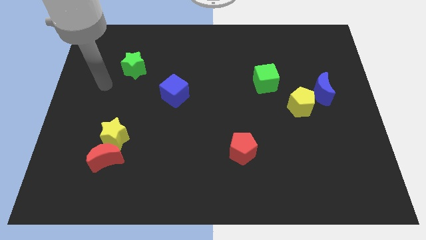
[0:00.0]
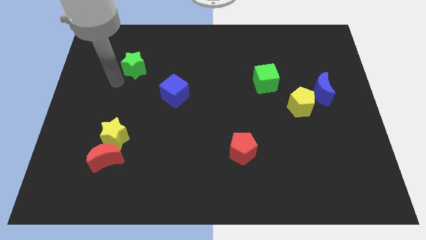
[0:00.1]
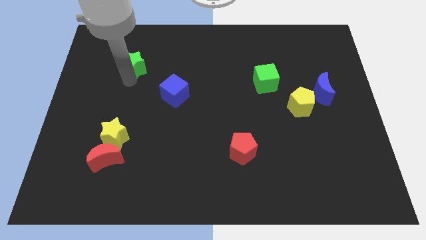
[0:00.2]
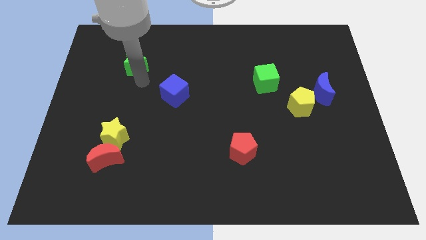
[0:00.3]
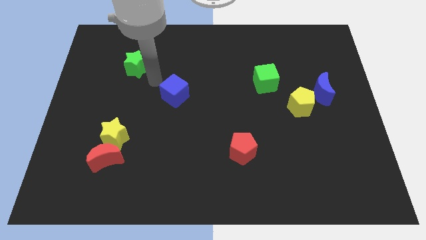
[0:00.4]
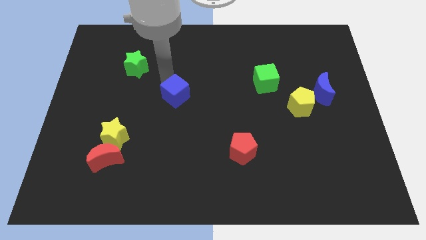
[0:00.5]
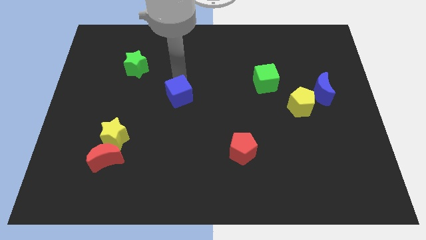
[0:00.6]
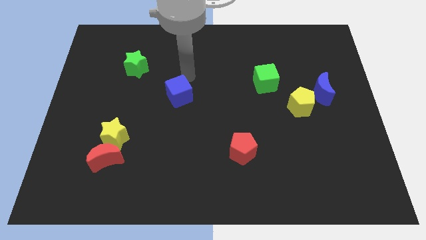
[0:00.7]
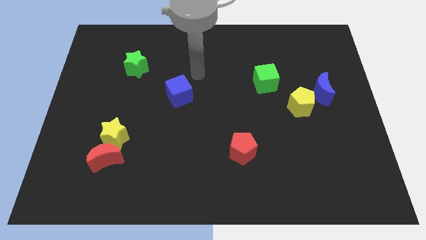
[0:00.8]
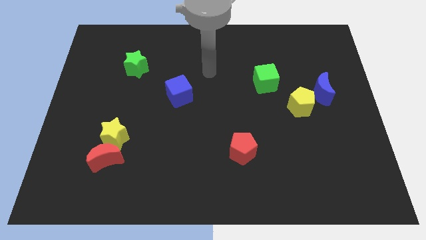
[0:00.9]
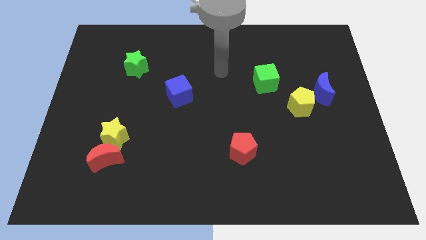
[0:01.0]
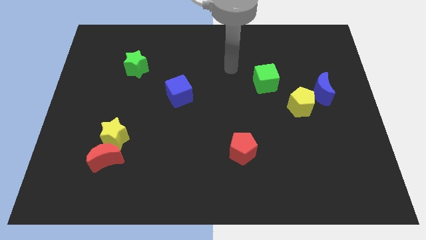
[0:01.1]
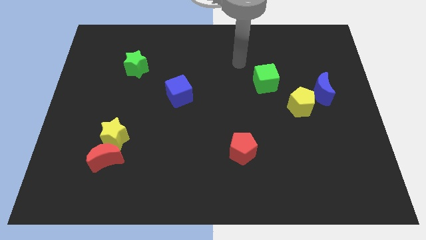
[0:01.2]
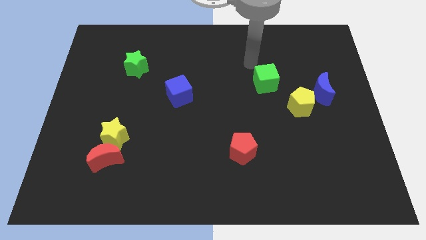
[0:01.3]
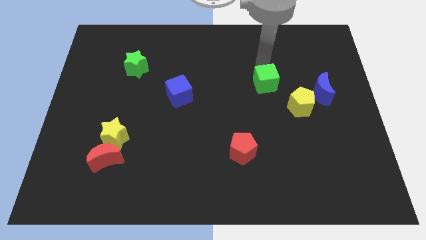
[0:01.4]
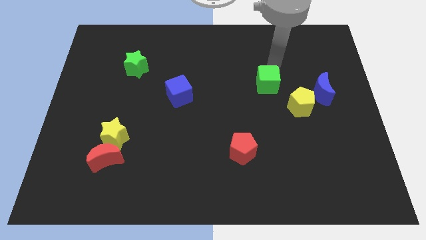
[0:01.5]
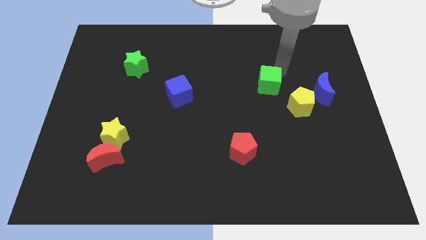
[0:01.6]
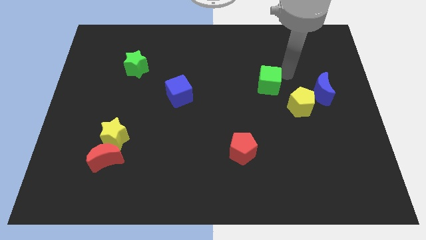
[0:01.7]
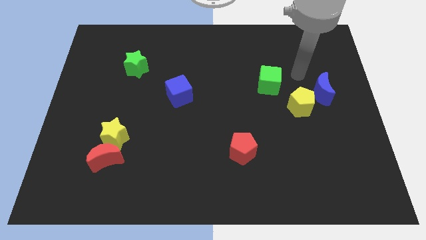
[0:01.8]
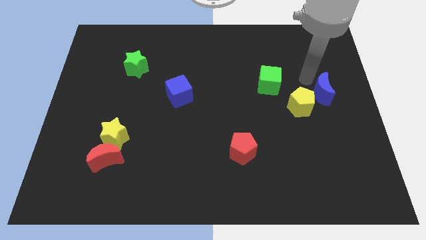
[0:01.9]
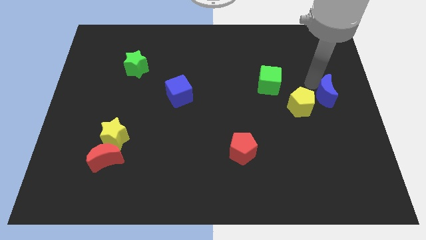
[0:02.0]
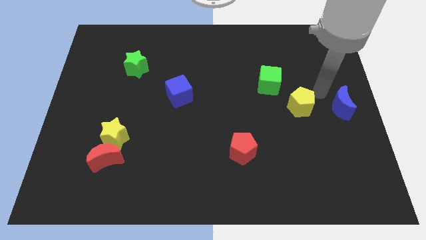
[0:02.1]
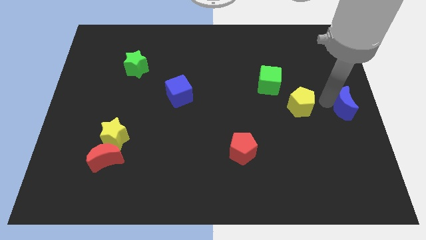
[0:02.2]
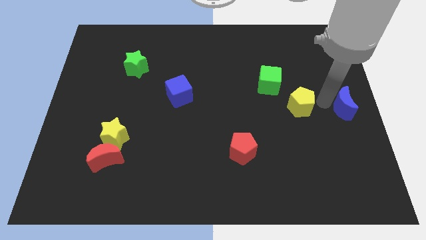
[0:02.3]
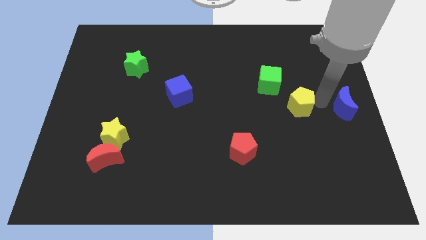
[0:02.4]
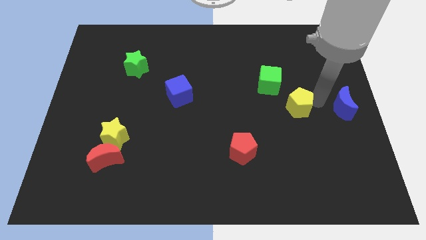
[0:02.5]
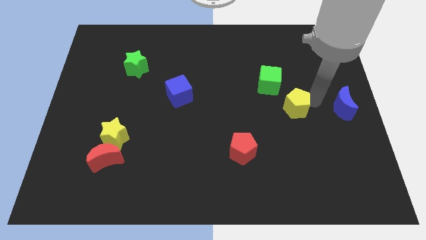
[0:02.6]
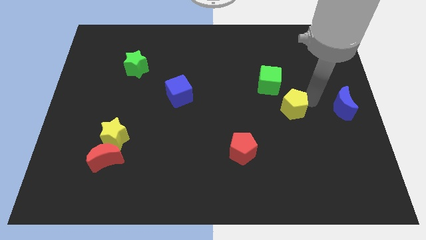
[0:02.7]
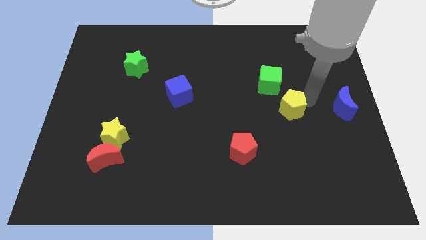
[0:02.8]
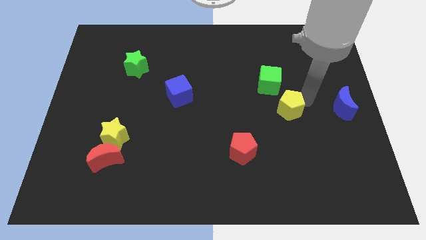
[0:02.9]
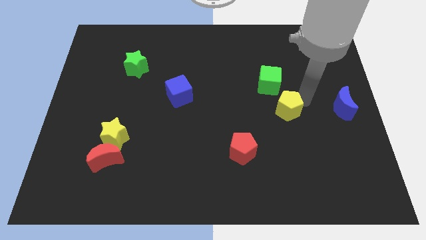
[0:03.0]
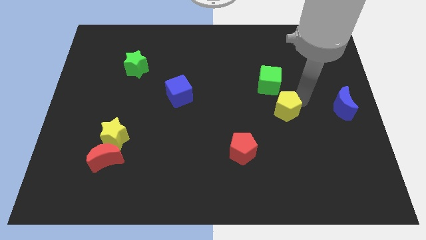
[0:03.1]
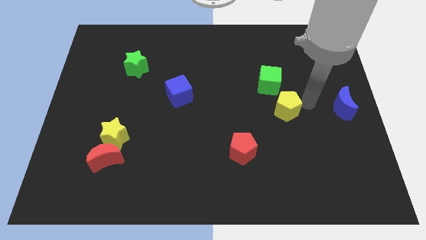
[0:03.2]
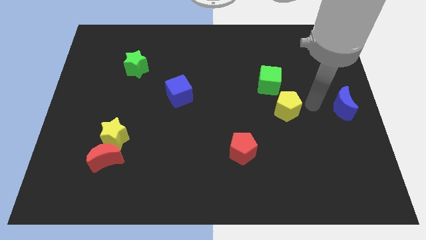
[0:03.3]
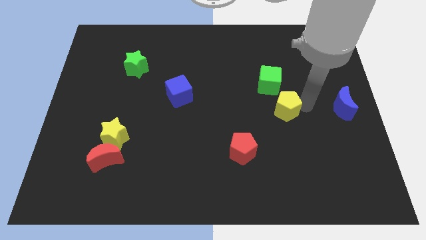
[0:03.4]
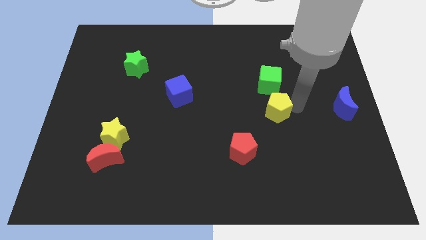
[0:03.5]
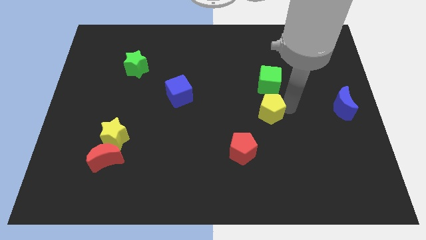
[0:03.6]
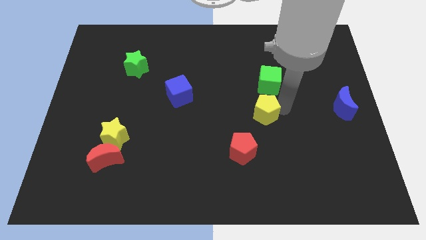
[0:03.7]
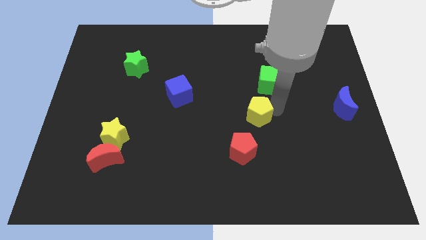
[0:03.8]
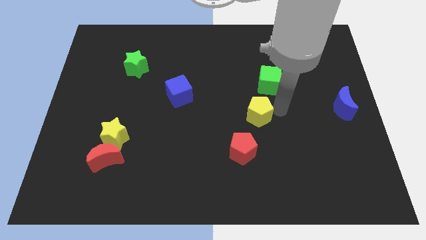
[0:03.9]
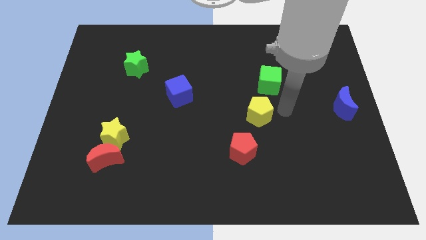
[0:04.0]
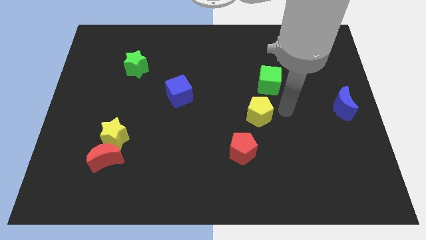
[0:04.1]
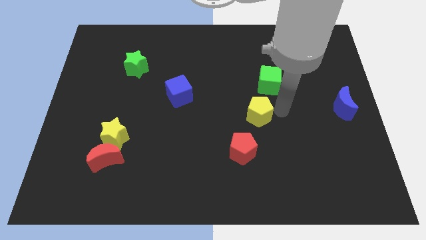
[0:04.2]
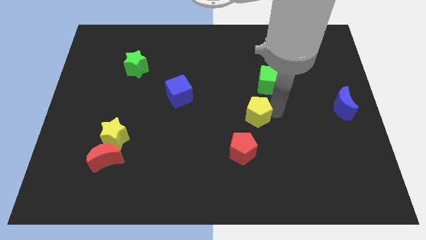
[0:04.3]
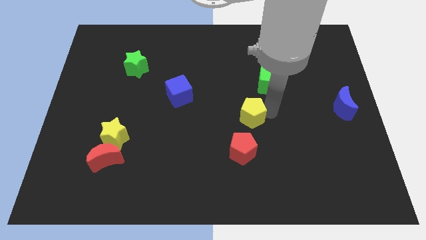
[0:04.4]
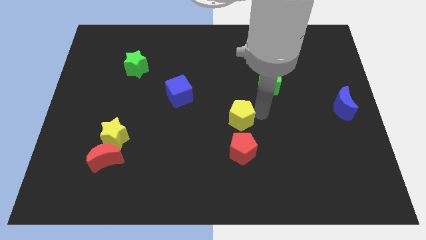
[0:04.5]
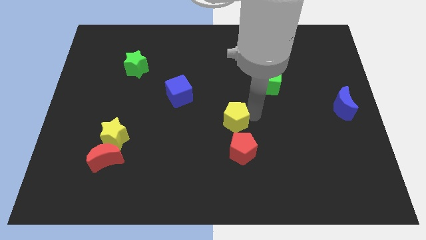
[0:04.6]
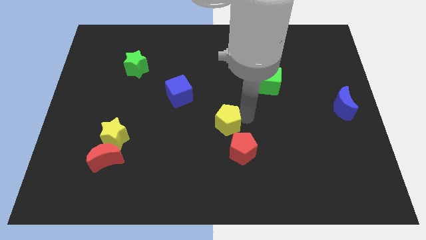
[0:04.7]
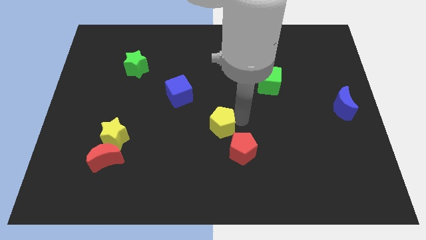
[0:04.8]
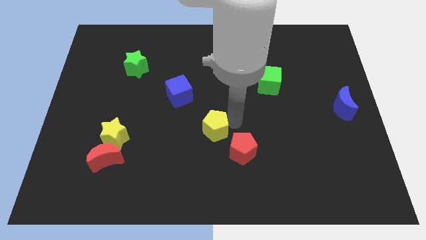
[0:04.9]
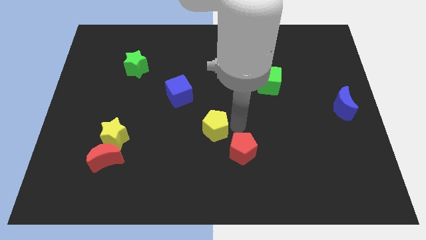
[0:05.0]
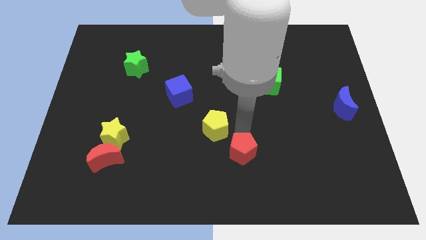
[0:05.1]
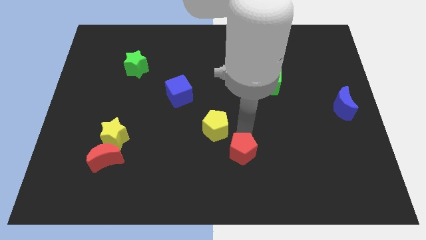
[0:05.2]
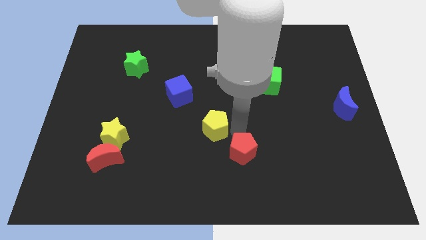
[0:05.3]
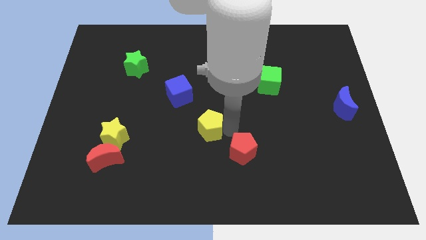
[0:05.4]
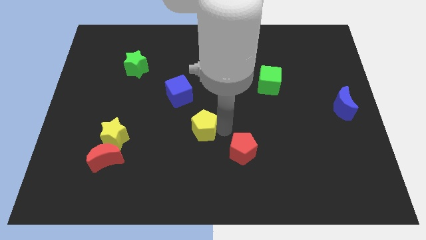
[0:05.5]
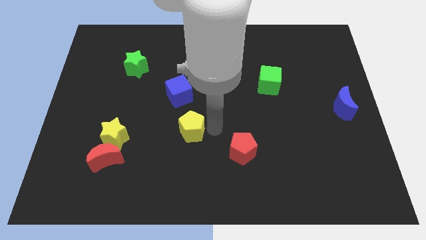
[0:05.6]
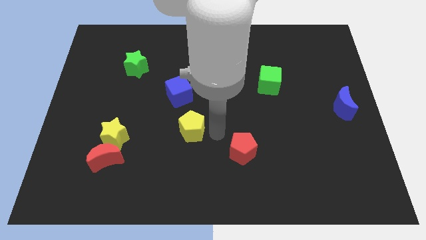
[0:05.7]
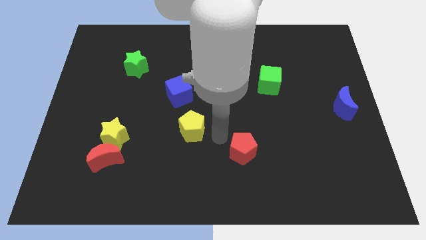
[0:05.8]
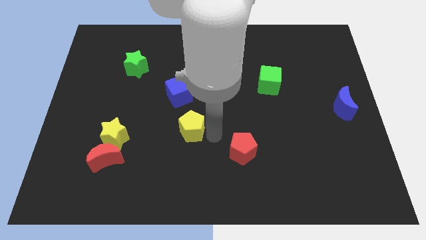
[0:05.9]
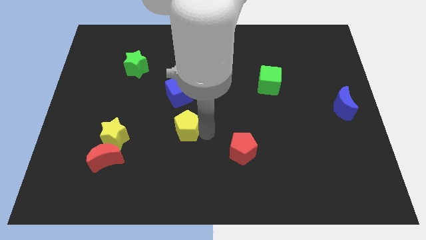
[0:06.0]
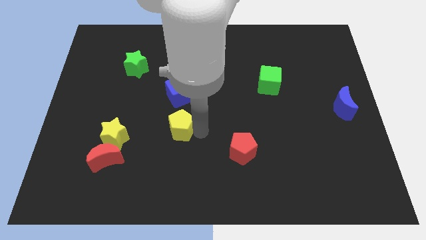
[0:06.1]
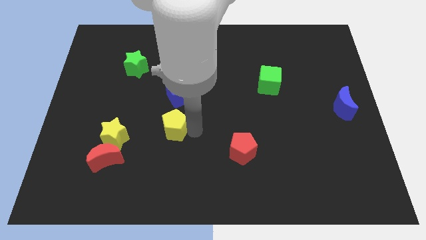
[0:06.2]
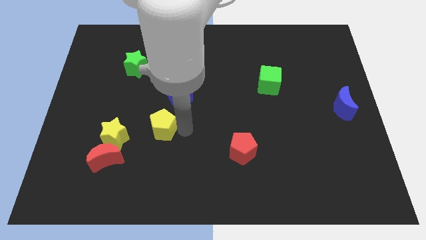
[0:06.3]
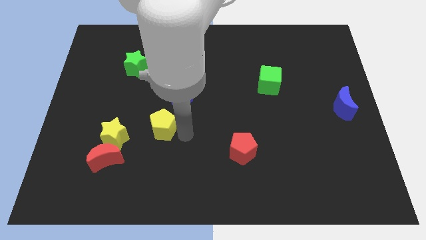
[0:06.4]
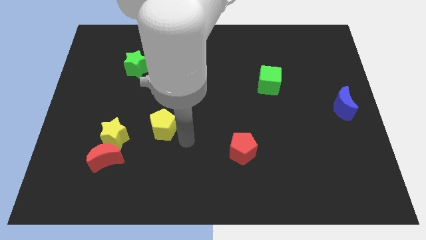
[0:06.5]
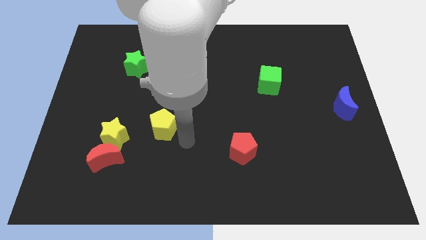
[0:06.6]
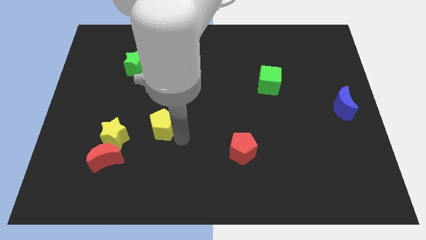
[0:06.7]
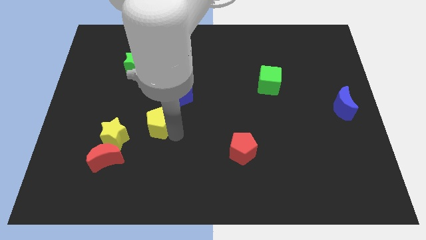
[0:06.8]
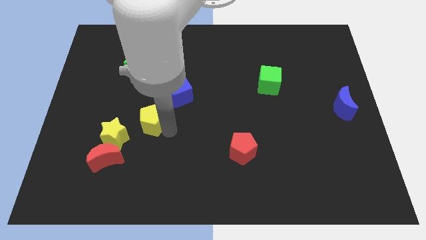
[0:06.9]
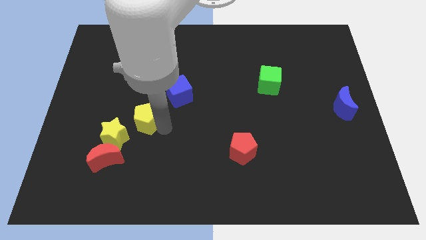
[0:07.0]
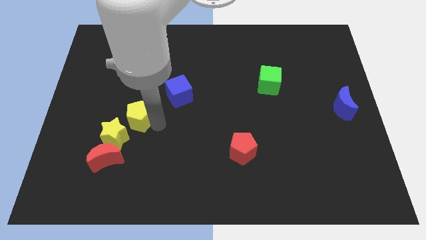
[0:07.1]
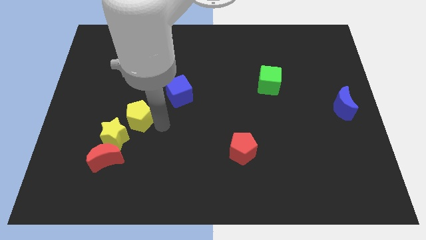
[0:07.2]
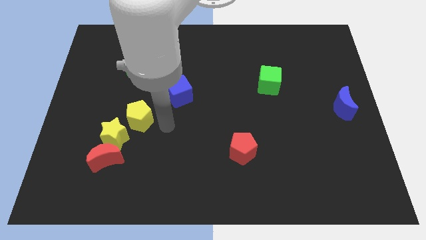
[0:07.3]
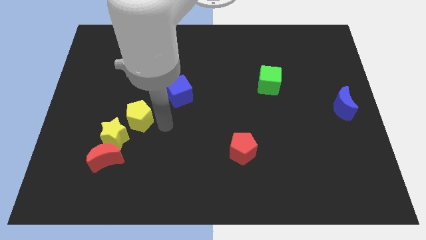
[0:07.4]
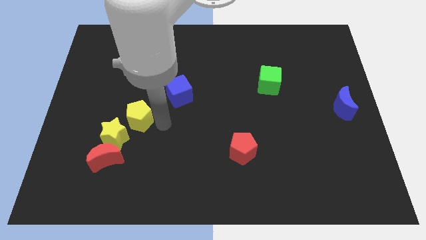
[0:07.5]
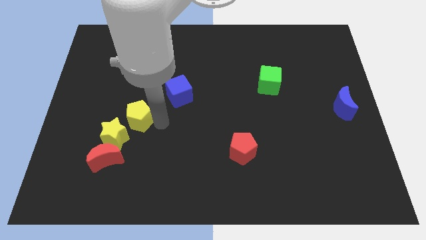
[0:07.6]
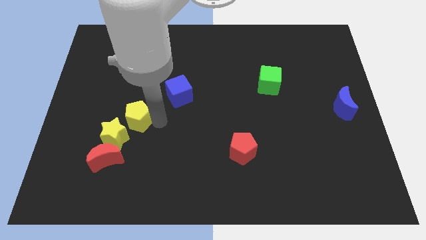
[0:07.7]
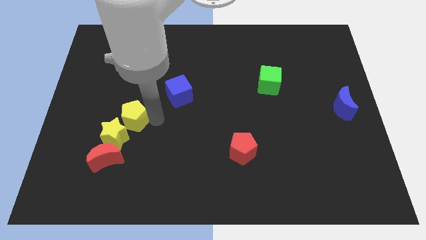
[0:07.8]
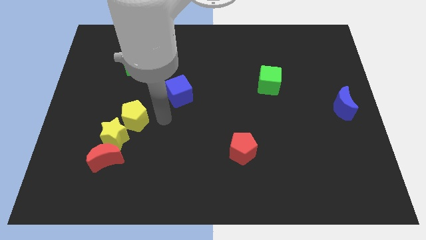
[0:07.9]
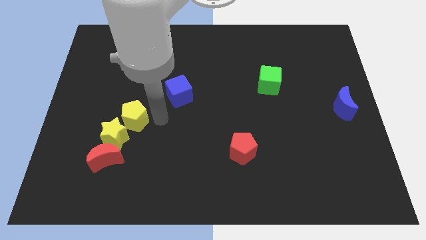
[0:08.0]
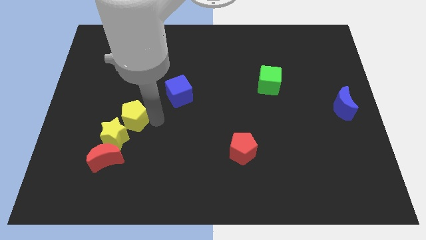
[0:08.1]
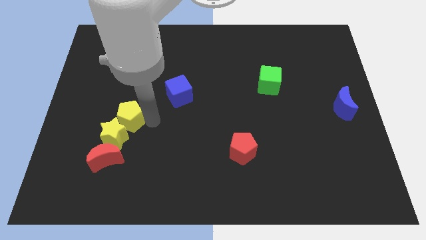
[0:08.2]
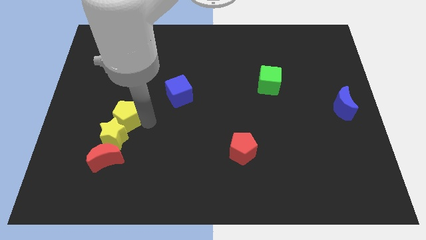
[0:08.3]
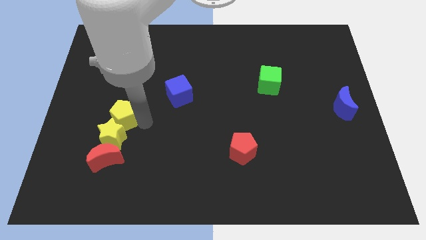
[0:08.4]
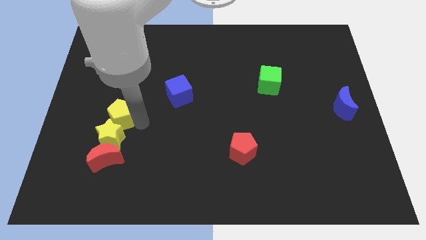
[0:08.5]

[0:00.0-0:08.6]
push the yellow pentagon to the top left of the yellow star
